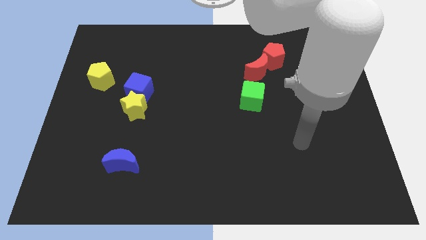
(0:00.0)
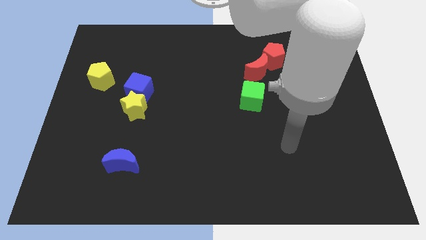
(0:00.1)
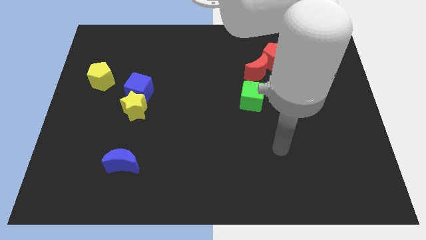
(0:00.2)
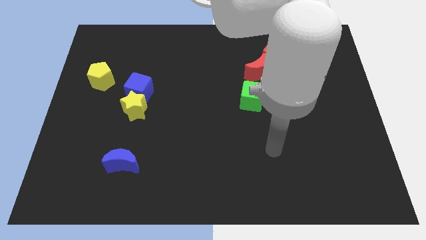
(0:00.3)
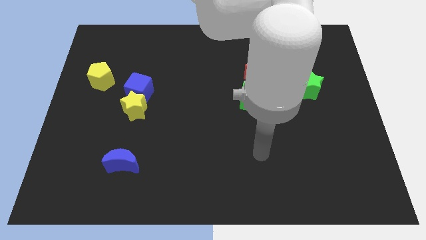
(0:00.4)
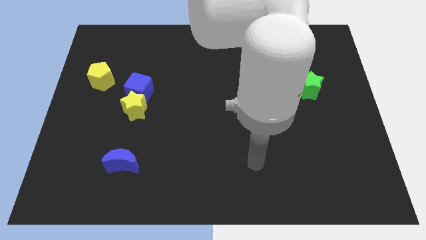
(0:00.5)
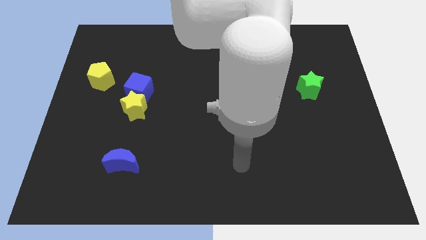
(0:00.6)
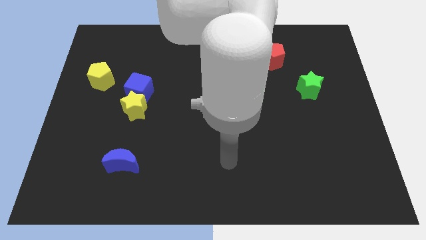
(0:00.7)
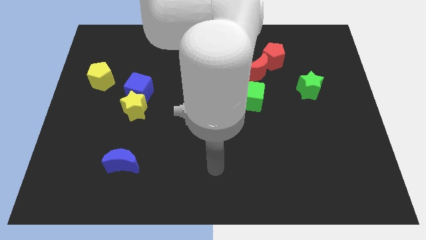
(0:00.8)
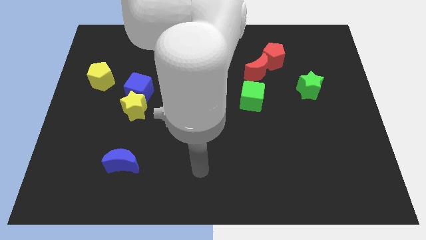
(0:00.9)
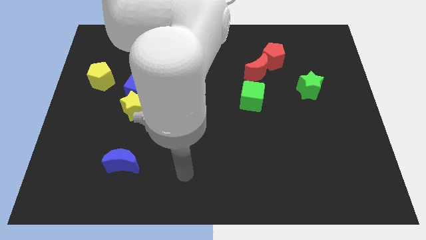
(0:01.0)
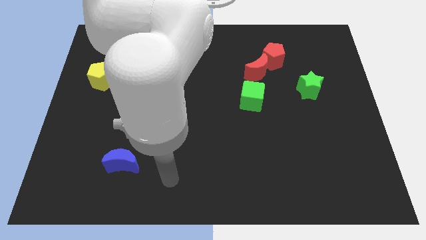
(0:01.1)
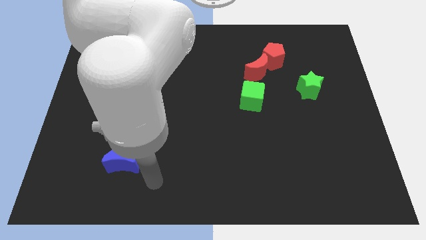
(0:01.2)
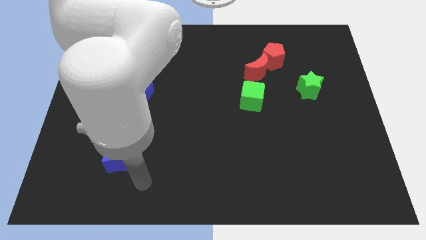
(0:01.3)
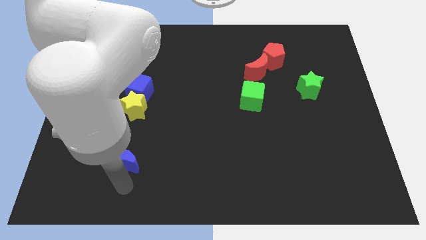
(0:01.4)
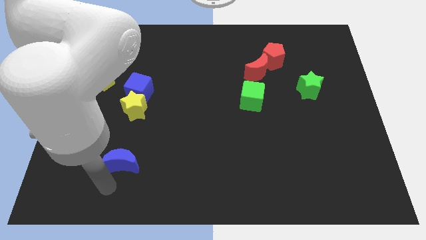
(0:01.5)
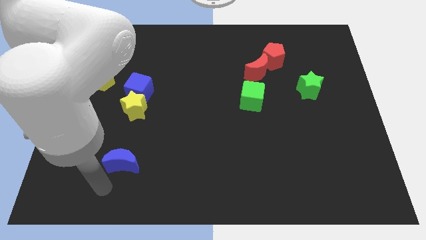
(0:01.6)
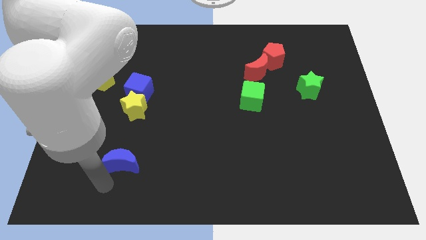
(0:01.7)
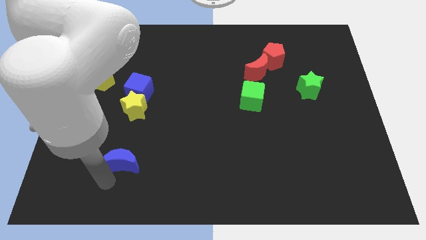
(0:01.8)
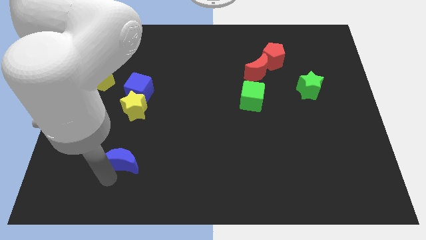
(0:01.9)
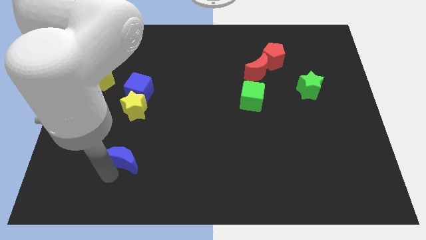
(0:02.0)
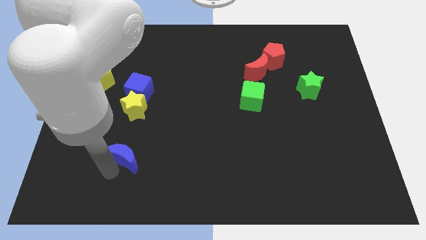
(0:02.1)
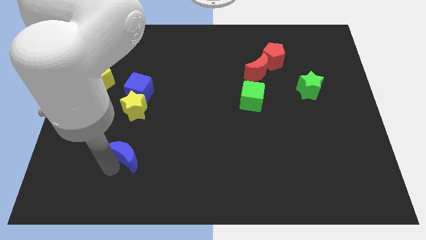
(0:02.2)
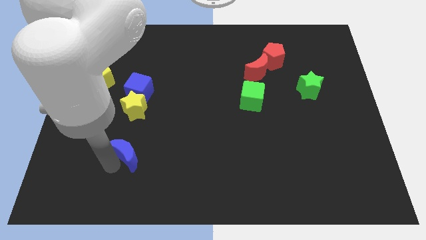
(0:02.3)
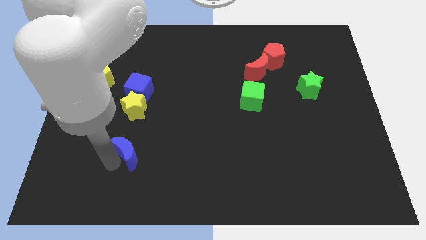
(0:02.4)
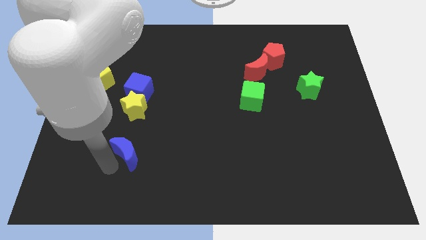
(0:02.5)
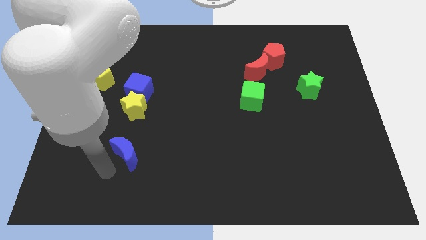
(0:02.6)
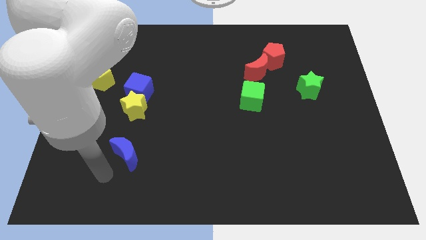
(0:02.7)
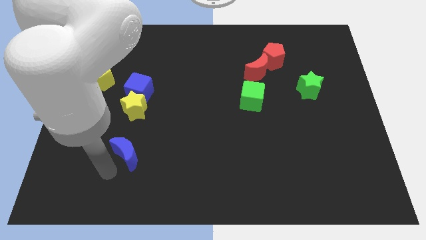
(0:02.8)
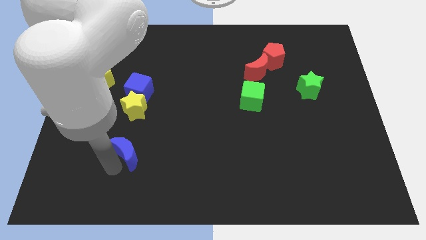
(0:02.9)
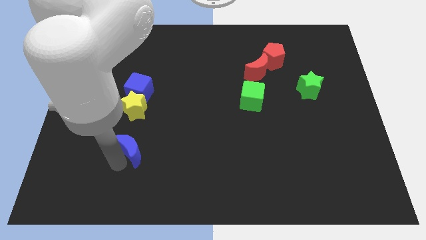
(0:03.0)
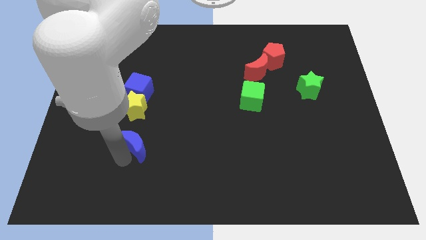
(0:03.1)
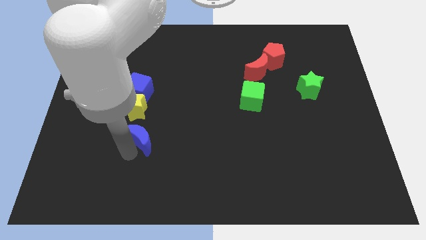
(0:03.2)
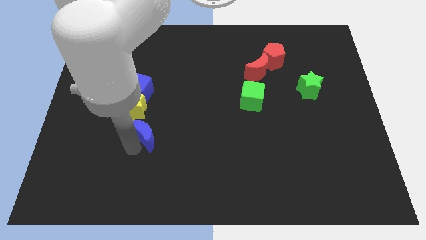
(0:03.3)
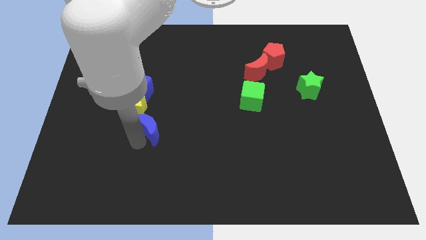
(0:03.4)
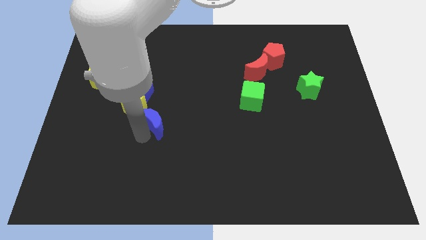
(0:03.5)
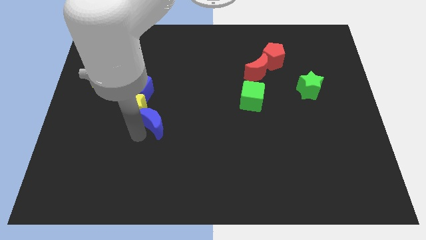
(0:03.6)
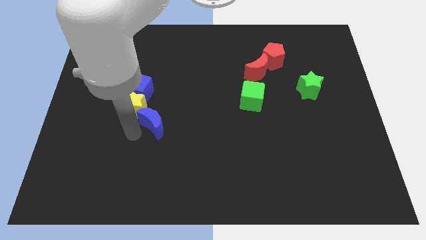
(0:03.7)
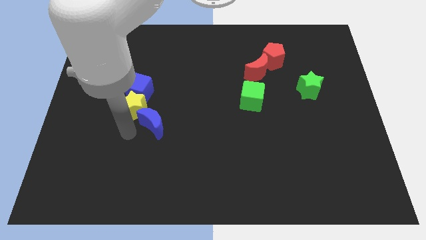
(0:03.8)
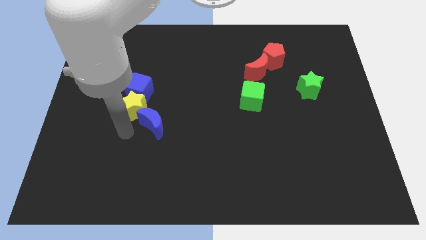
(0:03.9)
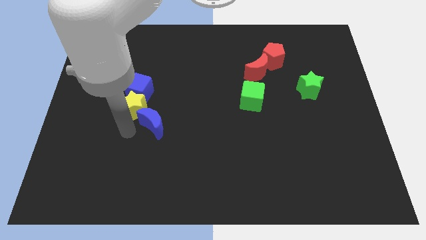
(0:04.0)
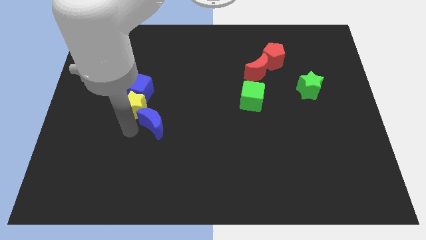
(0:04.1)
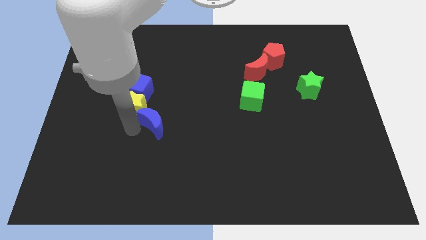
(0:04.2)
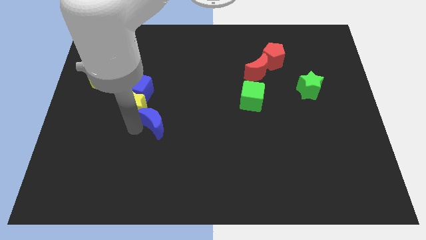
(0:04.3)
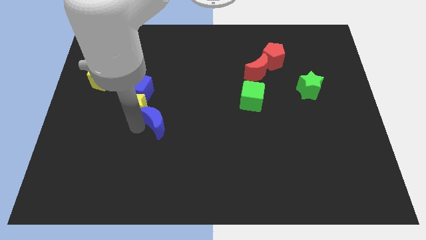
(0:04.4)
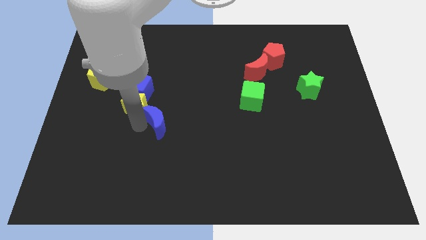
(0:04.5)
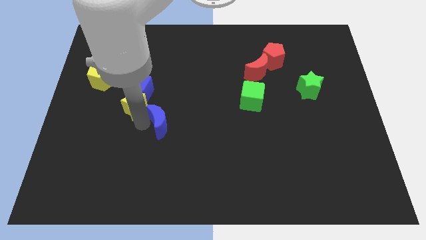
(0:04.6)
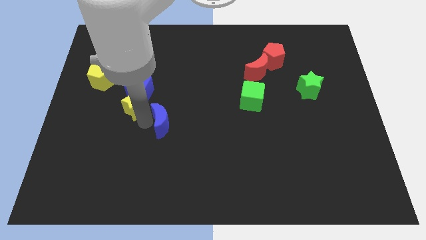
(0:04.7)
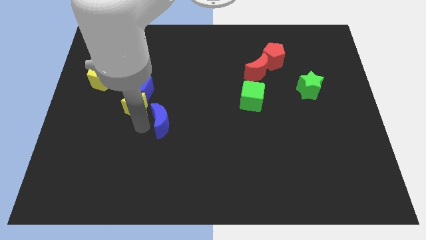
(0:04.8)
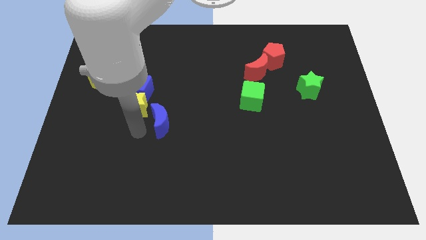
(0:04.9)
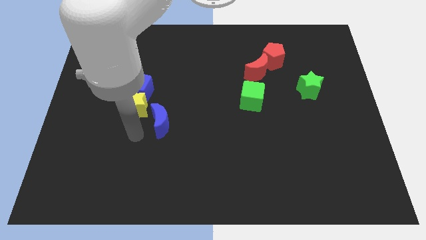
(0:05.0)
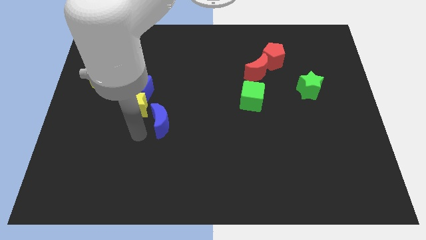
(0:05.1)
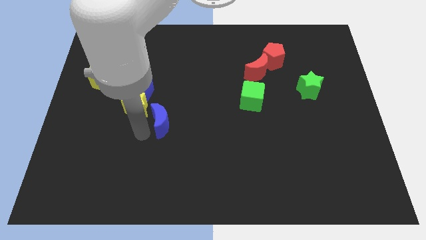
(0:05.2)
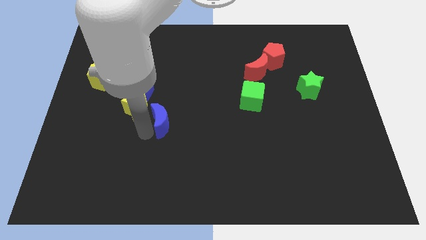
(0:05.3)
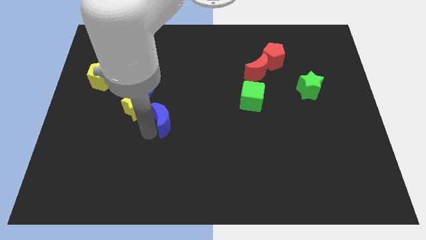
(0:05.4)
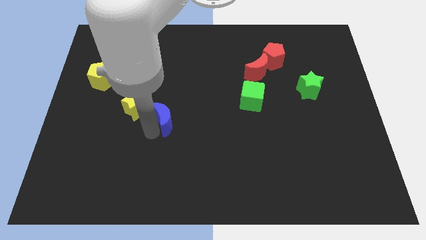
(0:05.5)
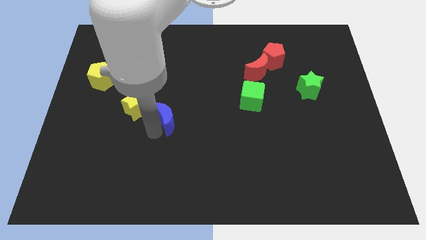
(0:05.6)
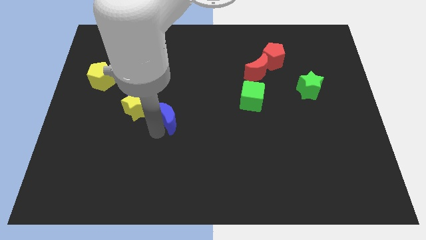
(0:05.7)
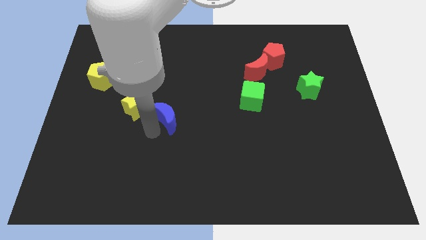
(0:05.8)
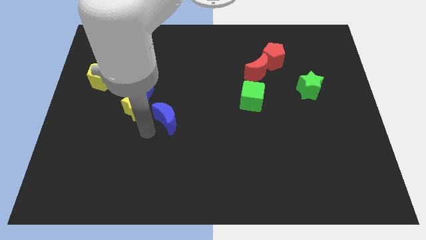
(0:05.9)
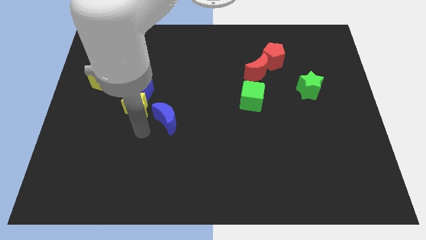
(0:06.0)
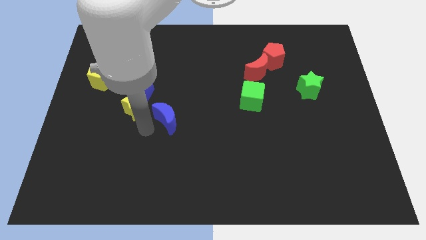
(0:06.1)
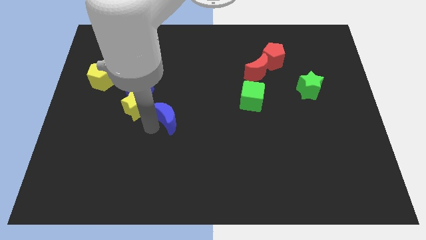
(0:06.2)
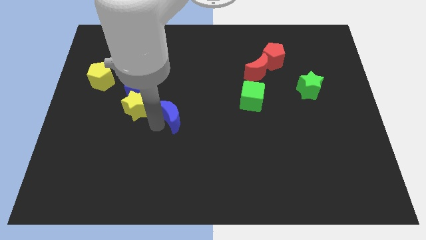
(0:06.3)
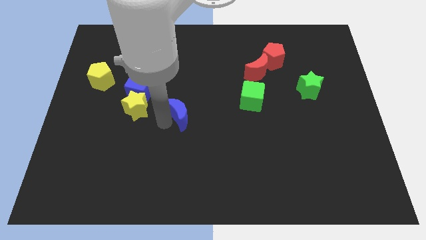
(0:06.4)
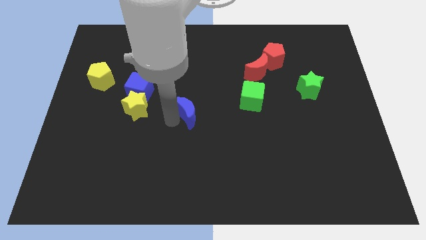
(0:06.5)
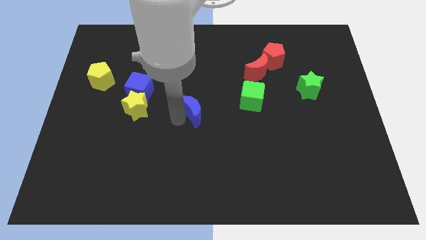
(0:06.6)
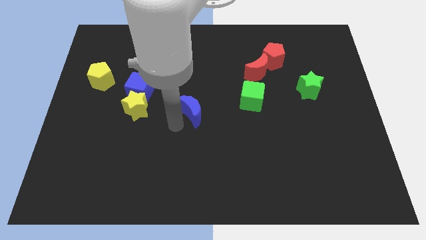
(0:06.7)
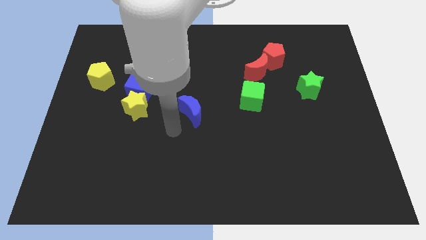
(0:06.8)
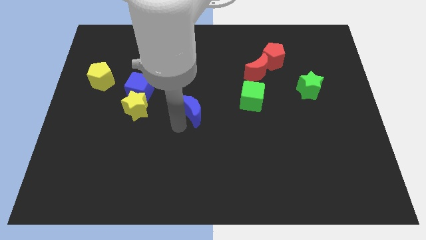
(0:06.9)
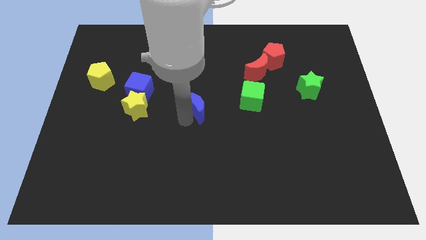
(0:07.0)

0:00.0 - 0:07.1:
push the blue moon diagonally upwards and right

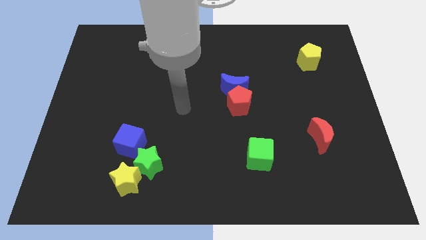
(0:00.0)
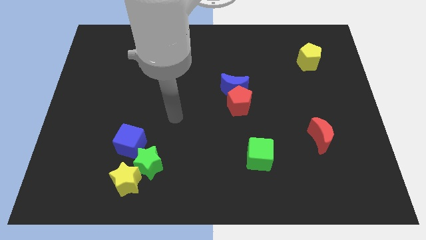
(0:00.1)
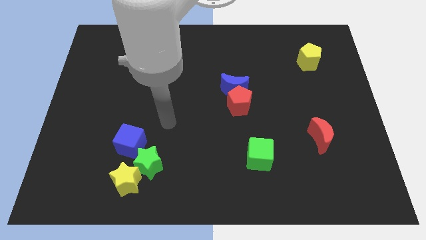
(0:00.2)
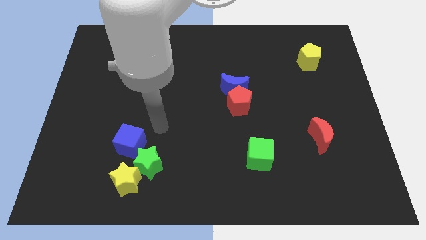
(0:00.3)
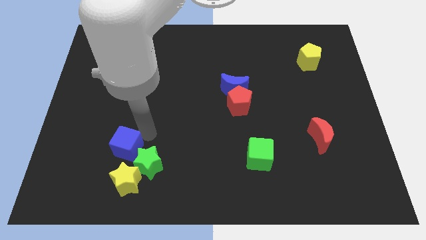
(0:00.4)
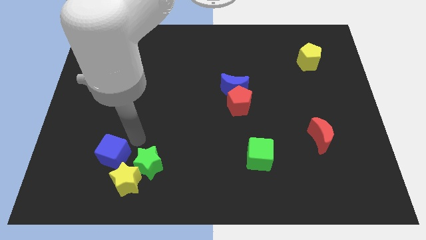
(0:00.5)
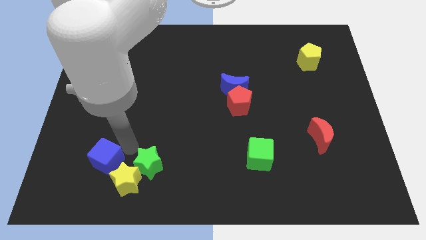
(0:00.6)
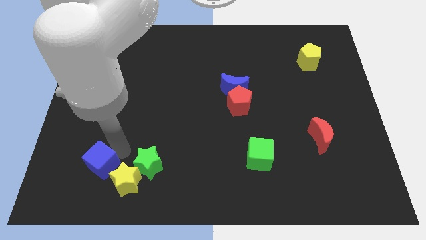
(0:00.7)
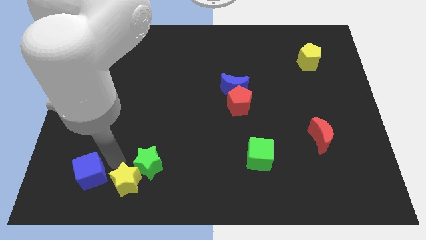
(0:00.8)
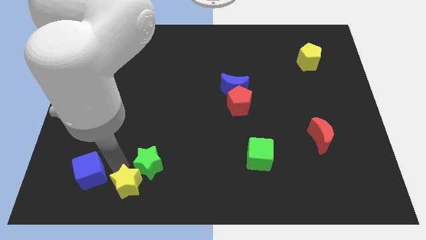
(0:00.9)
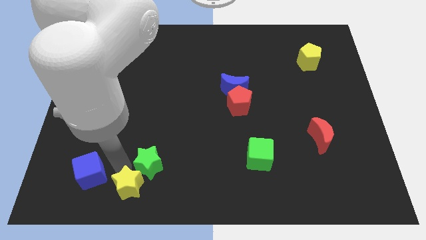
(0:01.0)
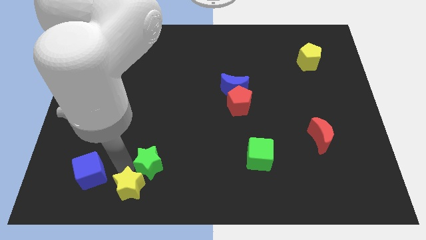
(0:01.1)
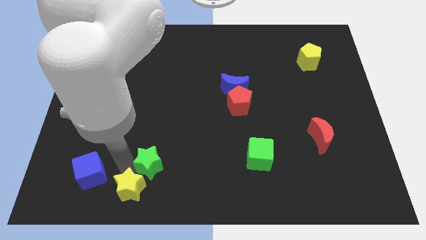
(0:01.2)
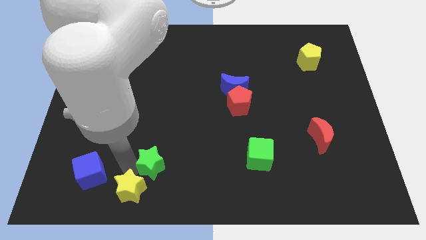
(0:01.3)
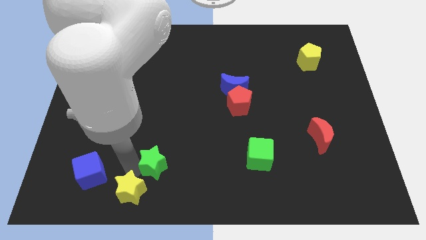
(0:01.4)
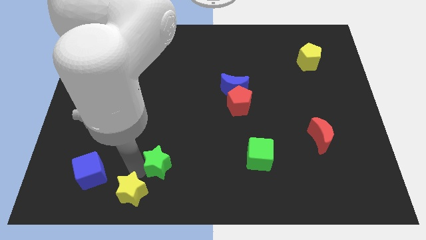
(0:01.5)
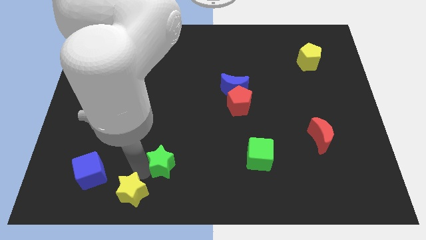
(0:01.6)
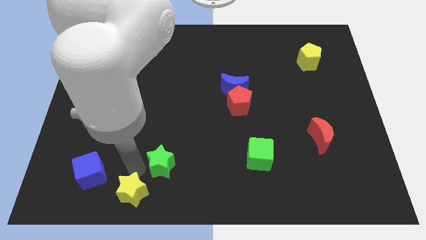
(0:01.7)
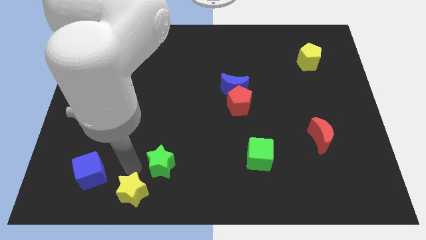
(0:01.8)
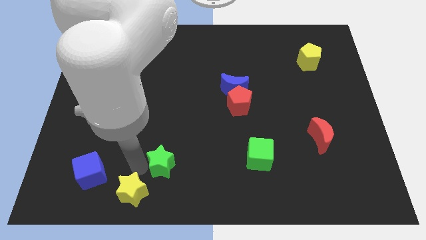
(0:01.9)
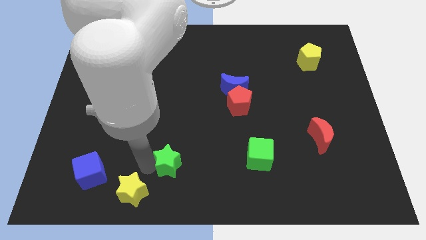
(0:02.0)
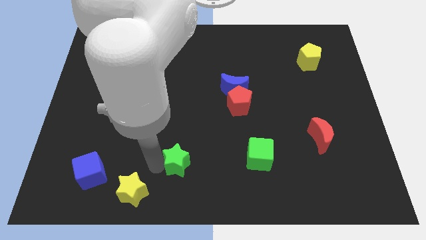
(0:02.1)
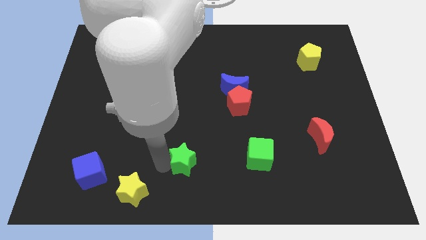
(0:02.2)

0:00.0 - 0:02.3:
slide the green star to the right a little bit
